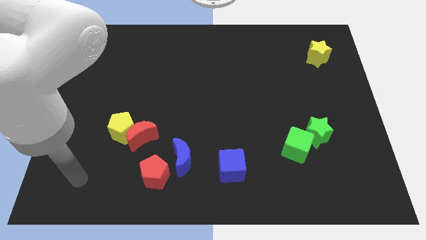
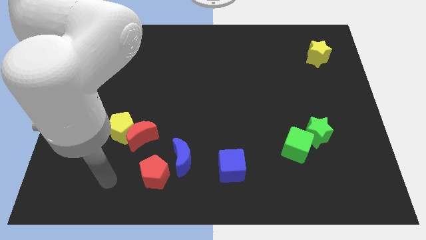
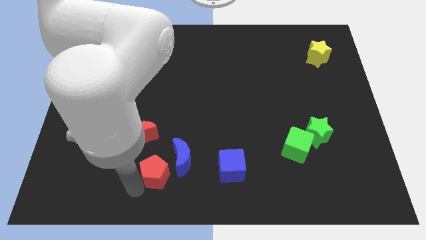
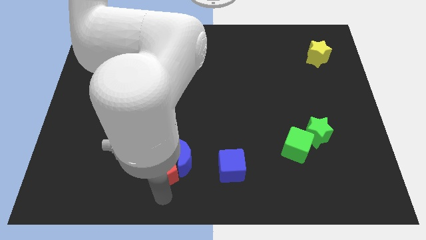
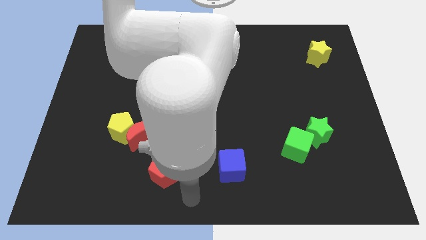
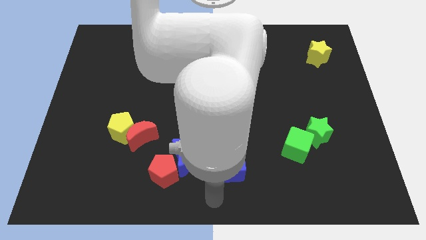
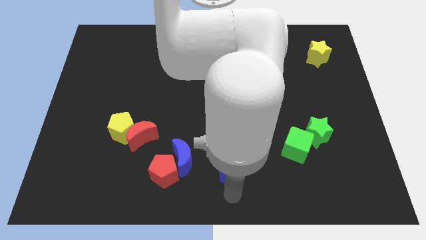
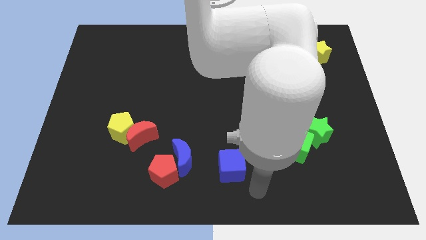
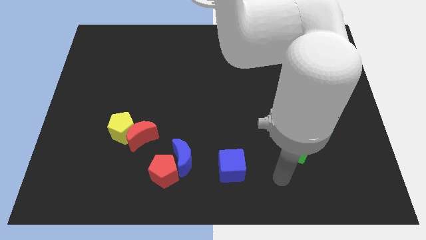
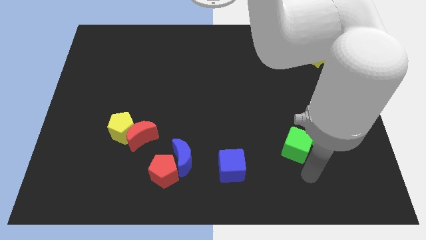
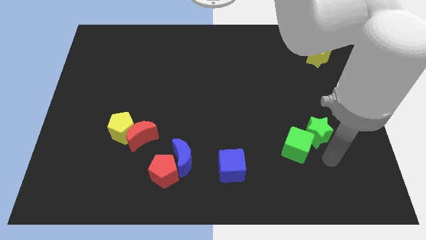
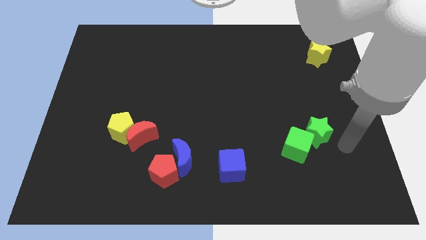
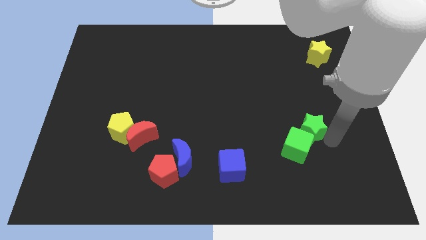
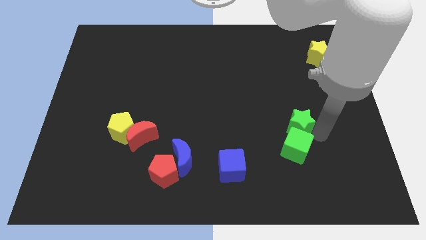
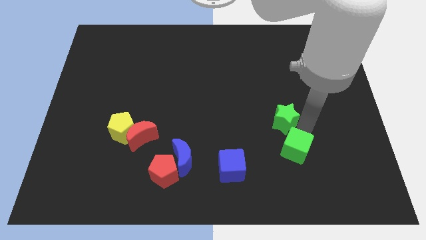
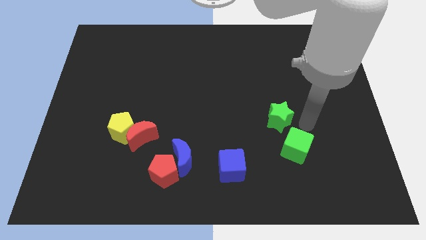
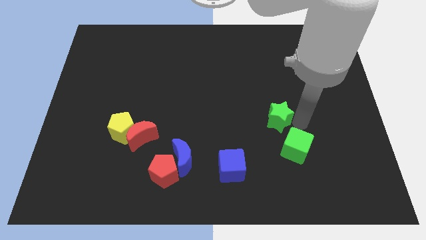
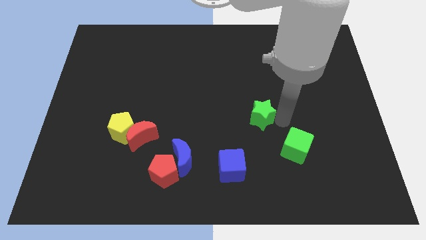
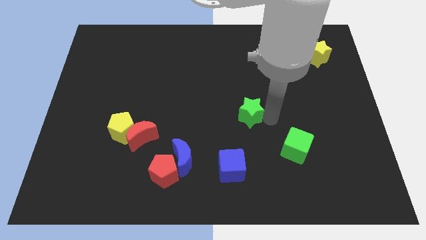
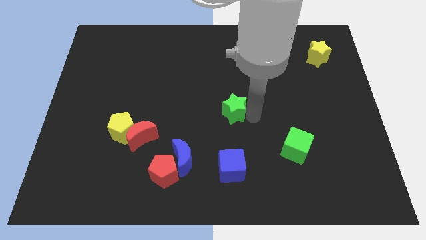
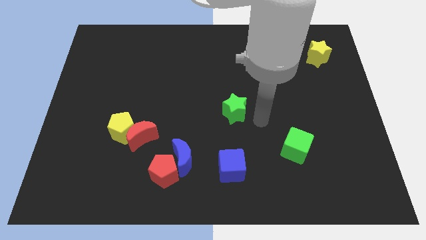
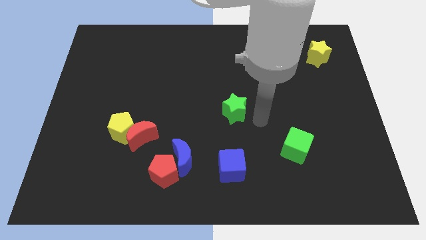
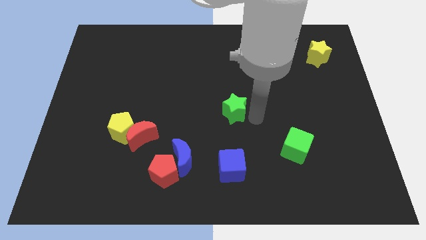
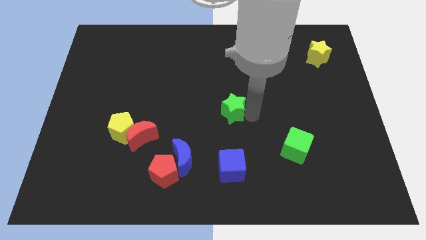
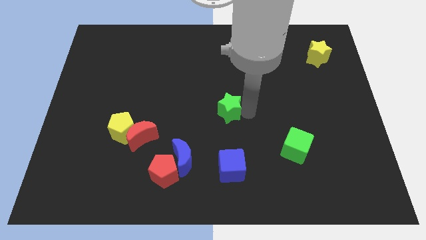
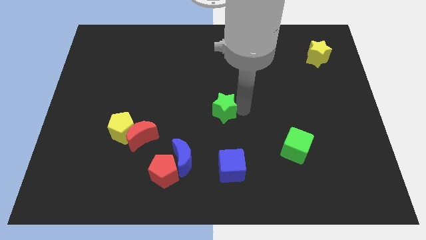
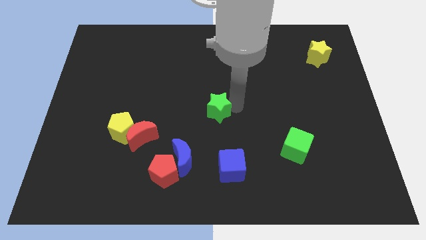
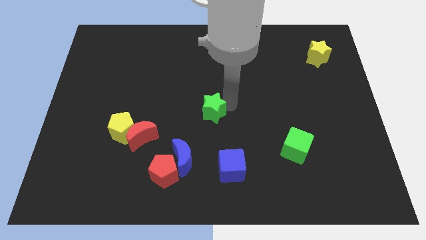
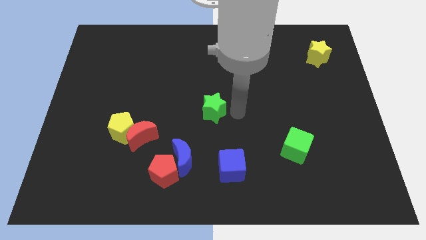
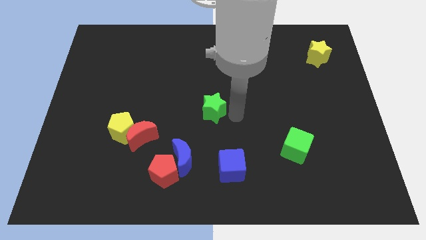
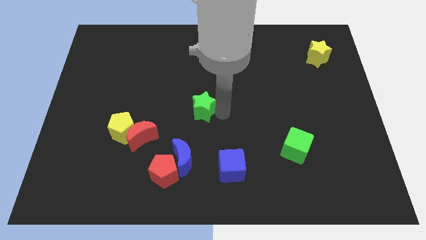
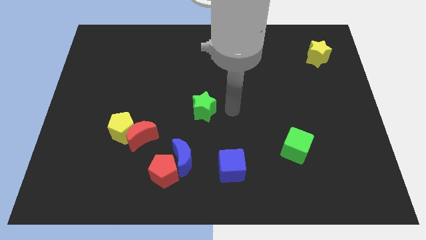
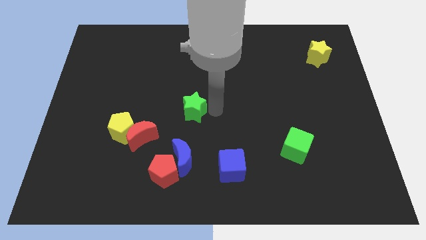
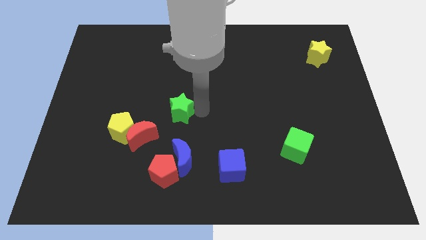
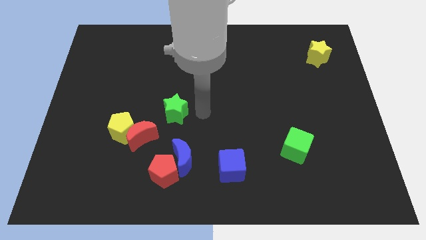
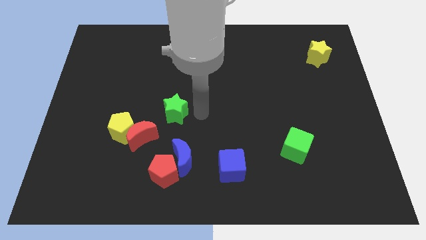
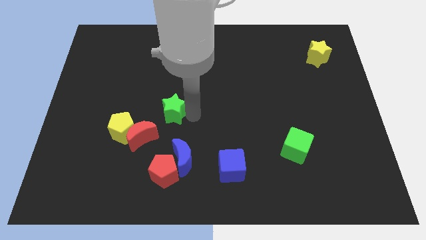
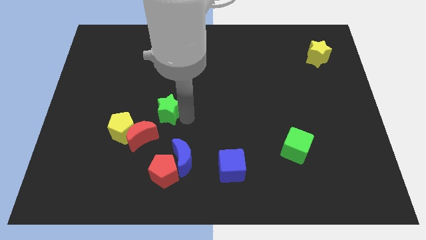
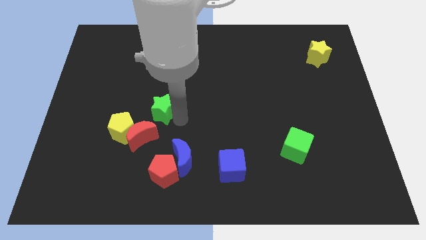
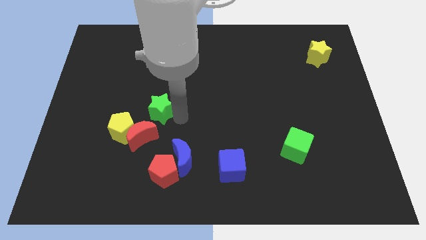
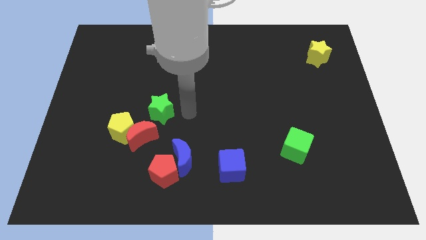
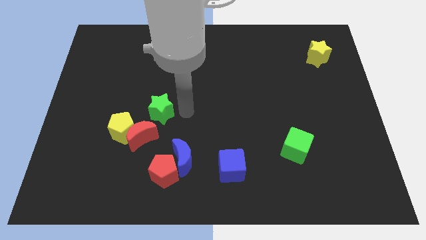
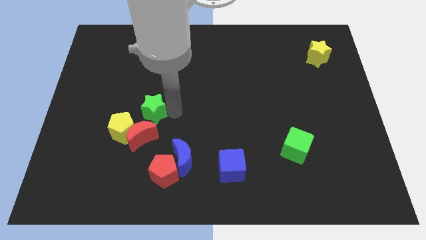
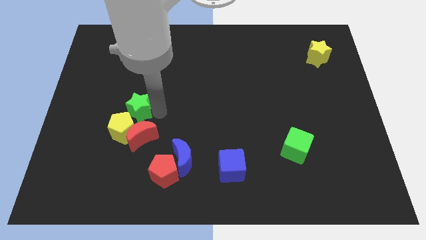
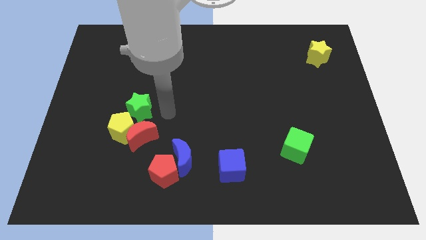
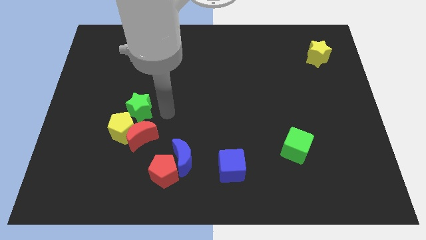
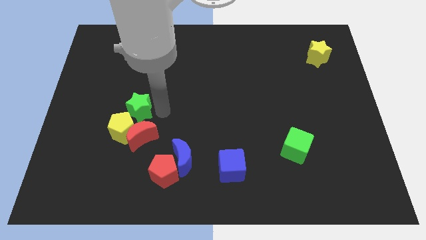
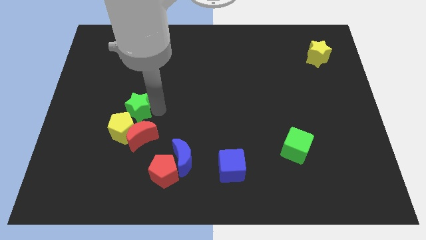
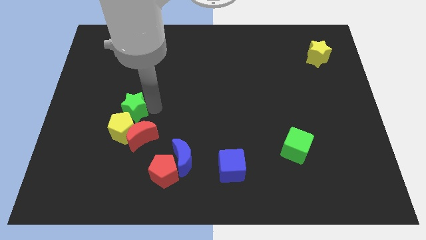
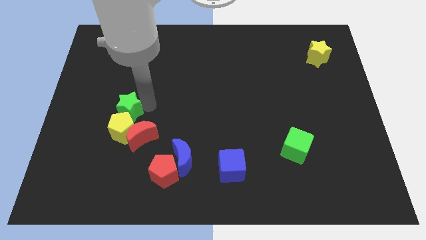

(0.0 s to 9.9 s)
move the green star to the top left side of the yellow pentagon

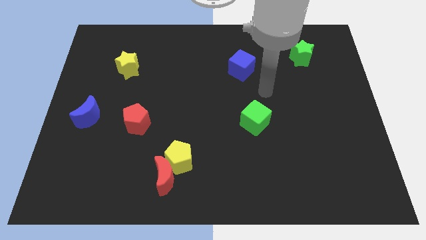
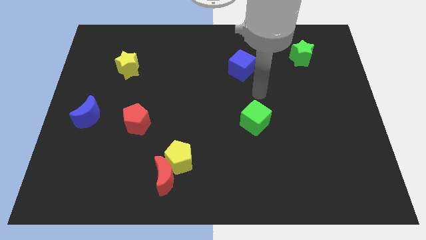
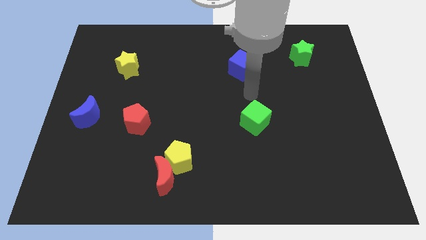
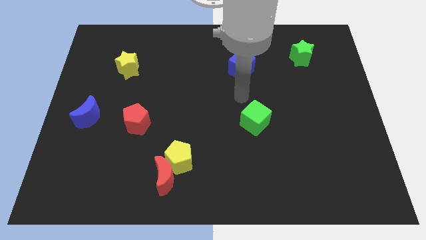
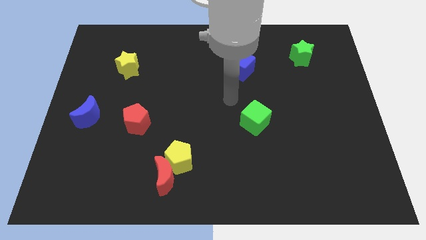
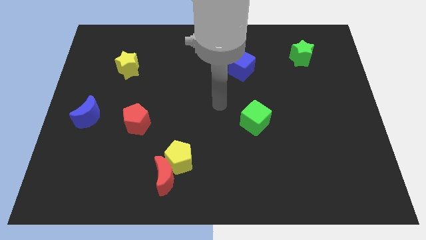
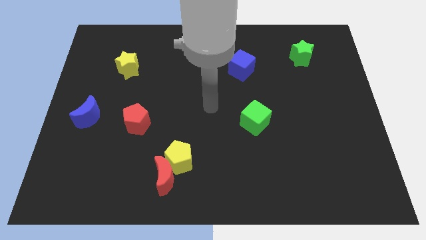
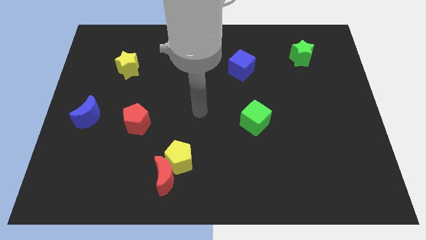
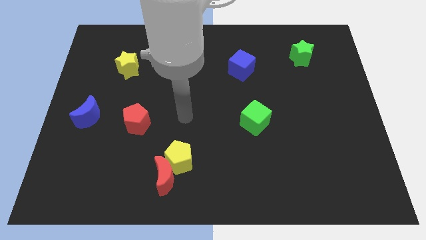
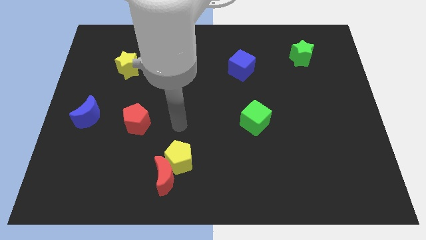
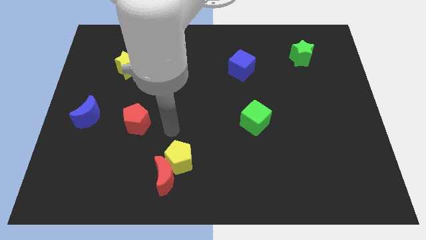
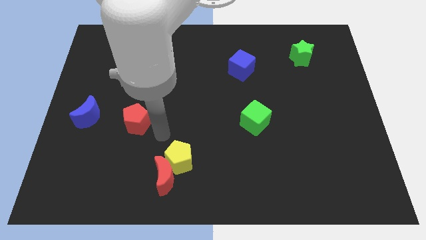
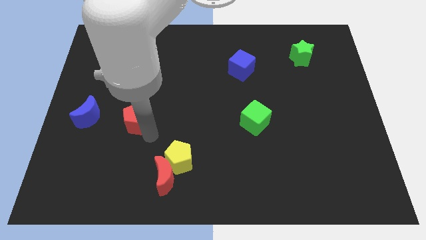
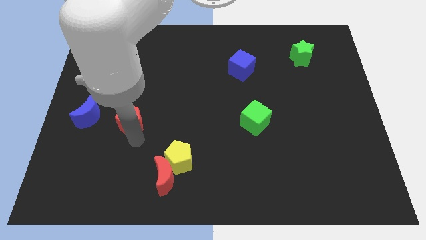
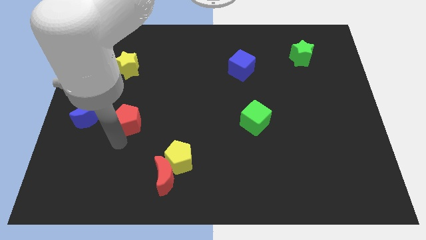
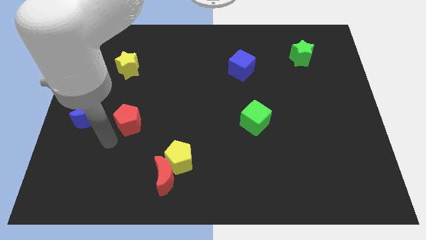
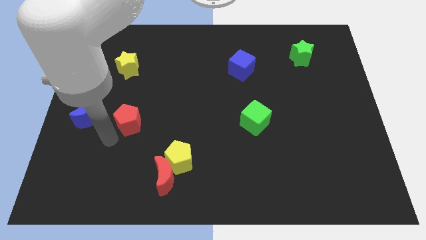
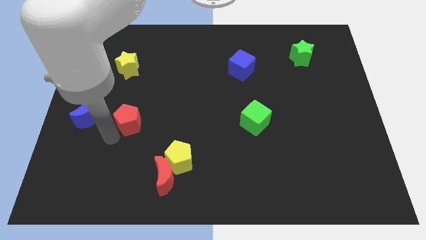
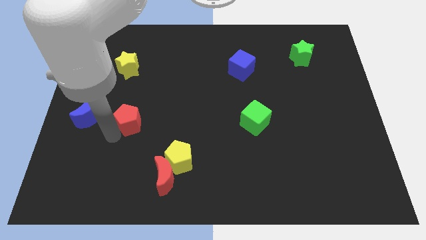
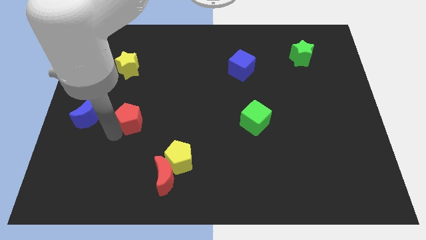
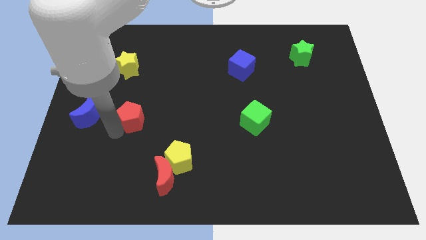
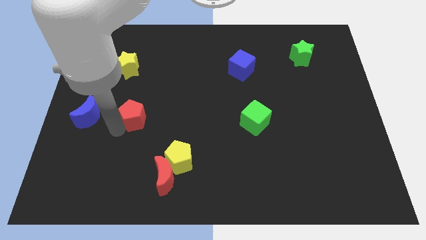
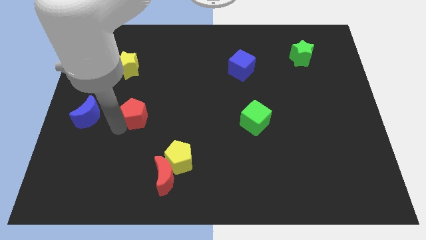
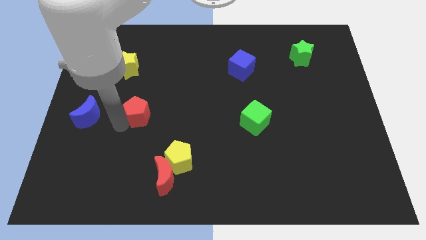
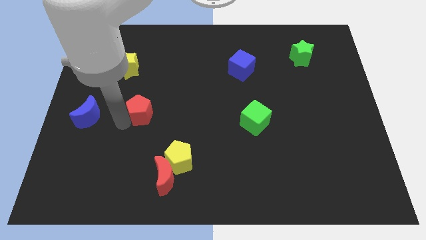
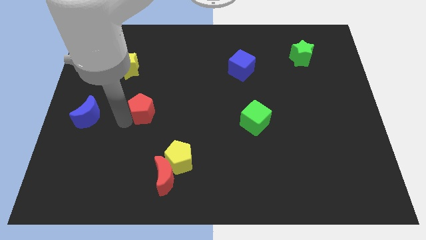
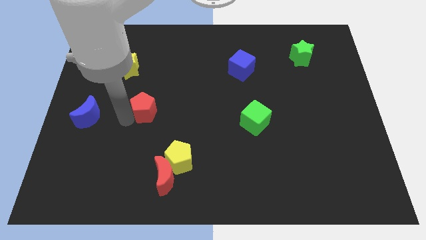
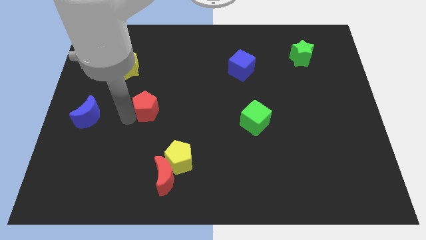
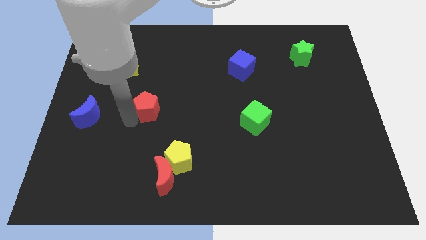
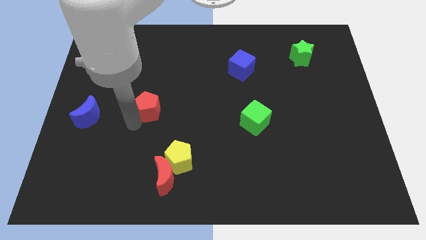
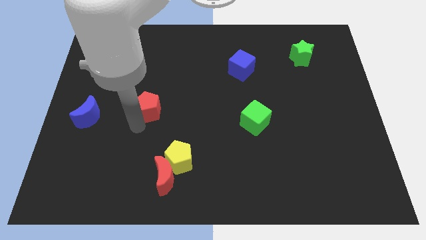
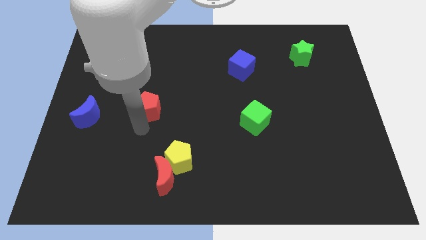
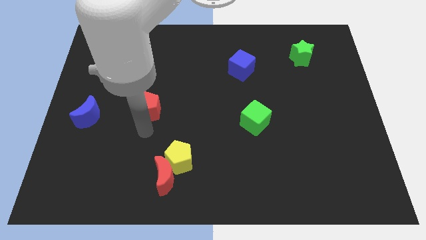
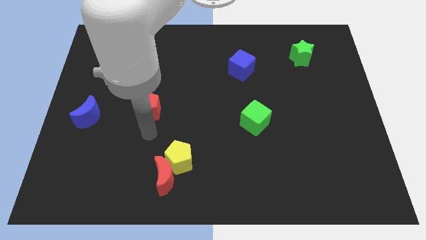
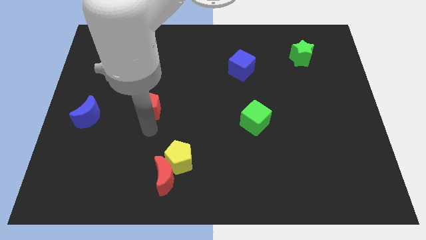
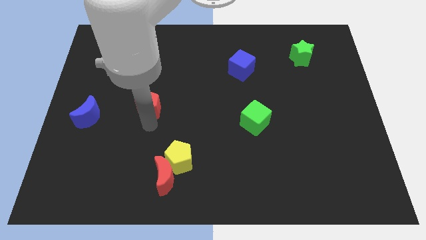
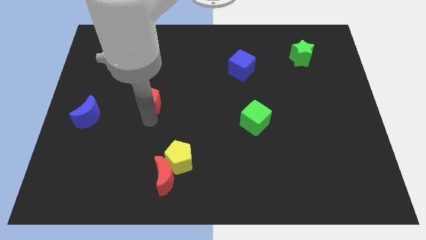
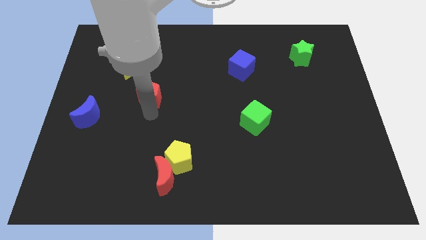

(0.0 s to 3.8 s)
move the red pentagon to the bottom right side of the yellow star
